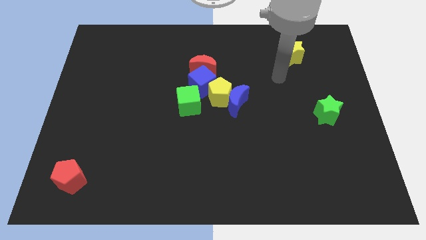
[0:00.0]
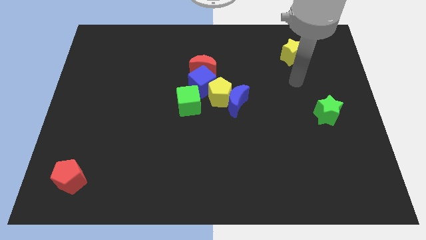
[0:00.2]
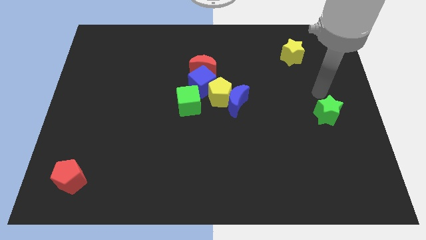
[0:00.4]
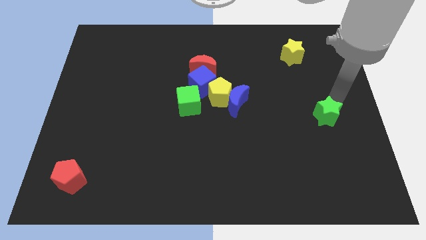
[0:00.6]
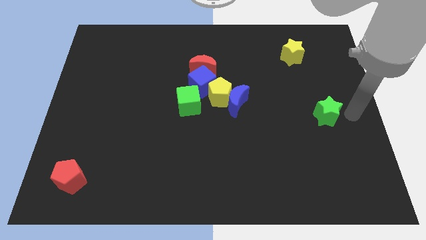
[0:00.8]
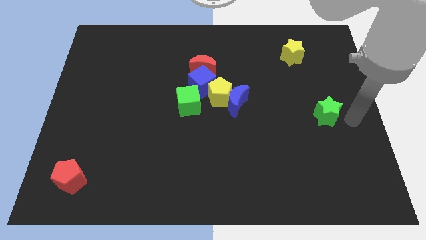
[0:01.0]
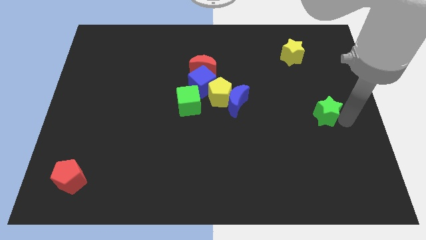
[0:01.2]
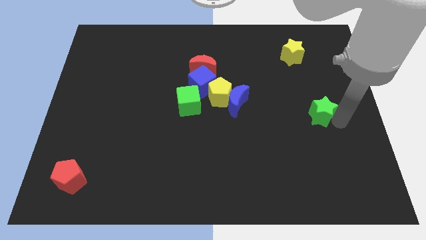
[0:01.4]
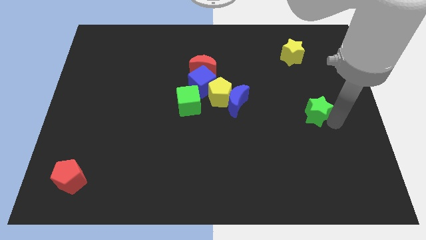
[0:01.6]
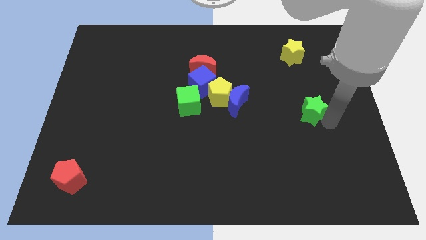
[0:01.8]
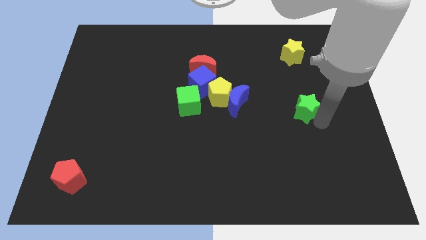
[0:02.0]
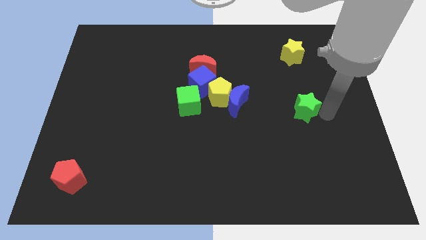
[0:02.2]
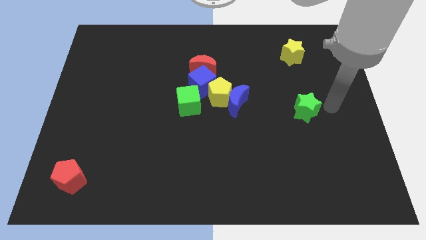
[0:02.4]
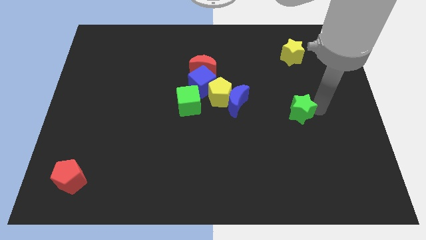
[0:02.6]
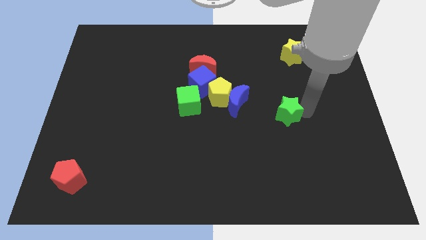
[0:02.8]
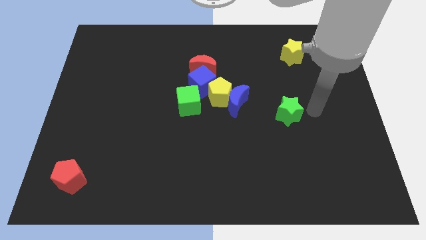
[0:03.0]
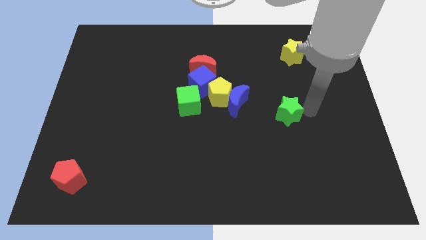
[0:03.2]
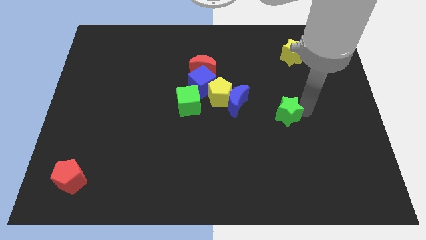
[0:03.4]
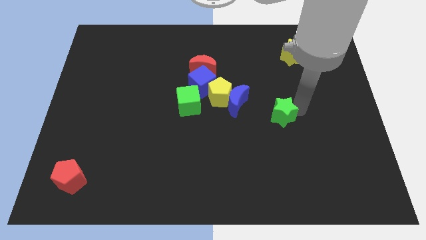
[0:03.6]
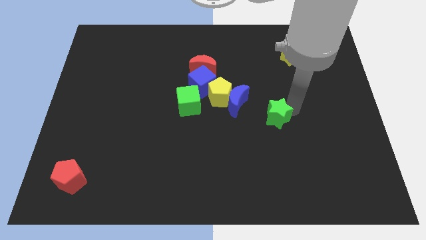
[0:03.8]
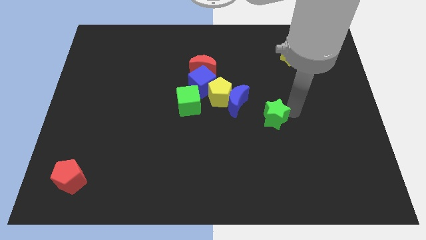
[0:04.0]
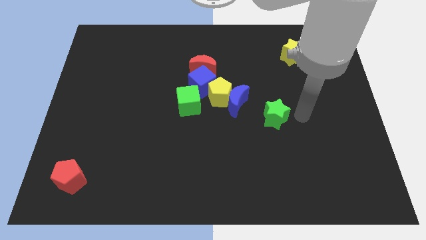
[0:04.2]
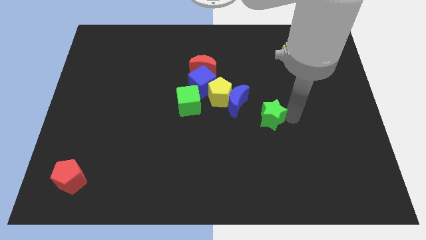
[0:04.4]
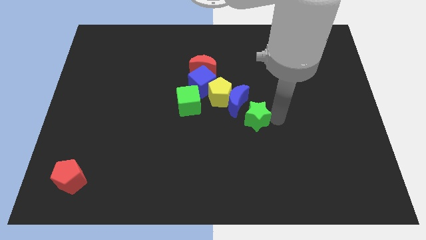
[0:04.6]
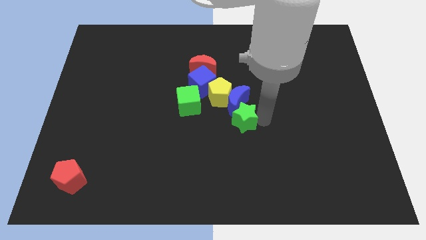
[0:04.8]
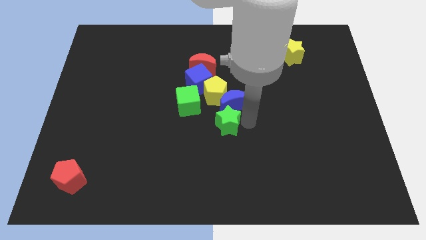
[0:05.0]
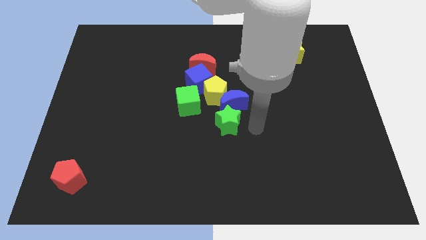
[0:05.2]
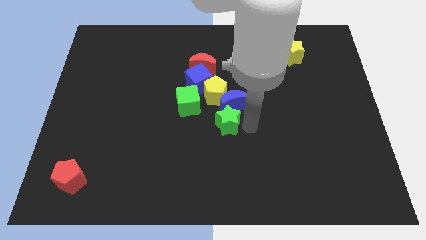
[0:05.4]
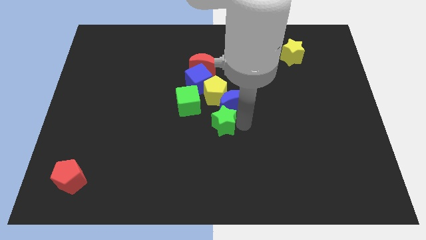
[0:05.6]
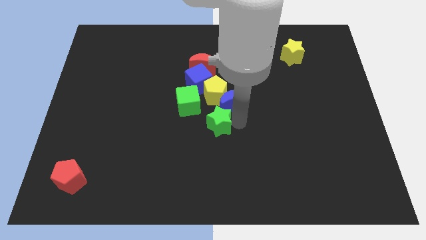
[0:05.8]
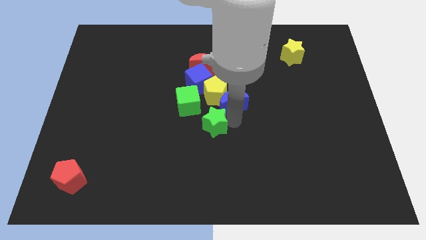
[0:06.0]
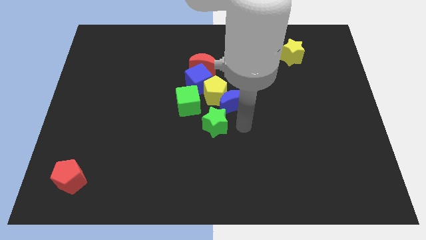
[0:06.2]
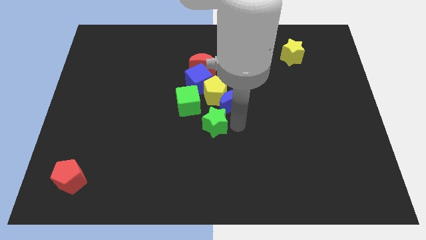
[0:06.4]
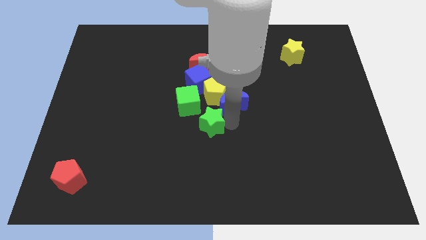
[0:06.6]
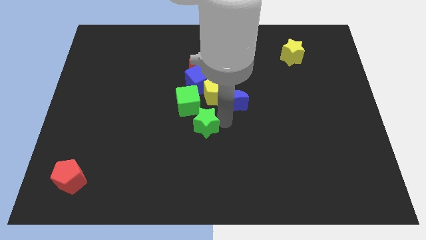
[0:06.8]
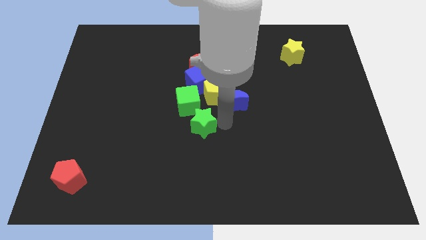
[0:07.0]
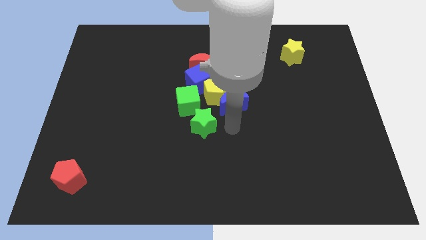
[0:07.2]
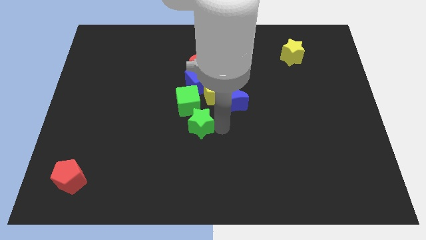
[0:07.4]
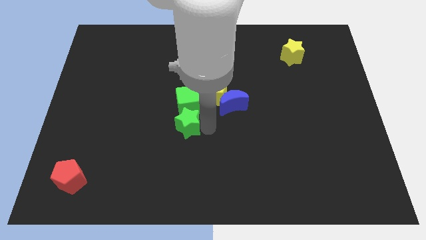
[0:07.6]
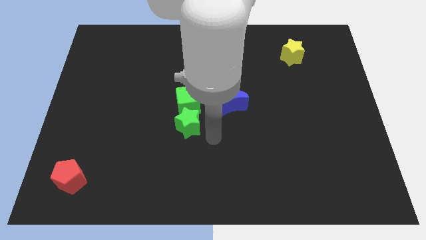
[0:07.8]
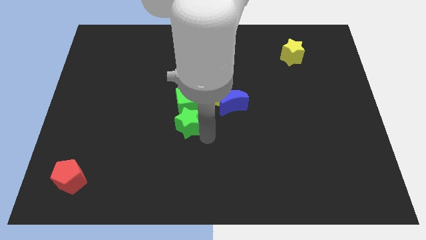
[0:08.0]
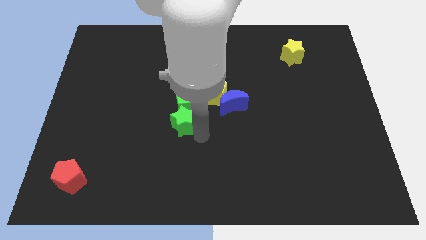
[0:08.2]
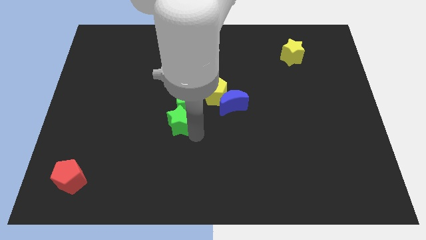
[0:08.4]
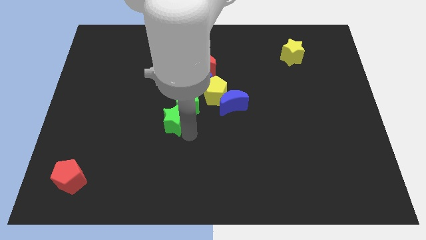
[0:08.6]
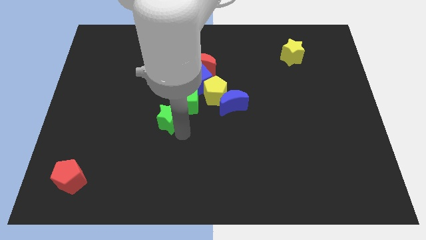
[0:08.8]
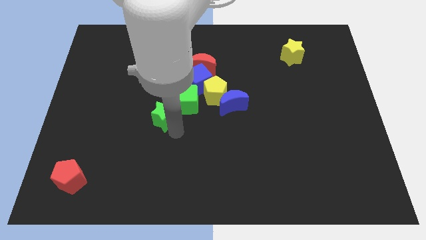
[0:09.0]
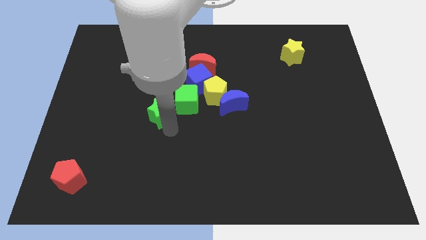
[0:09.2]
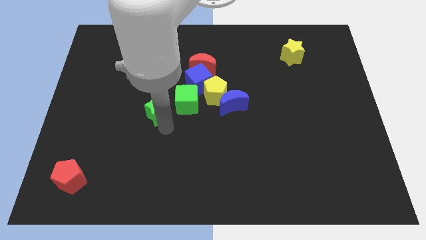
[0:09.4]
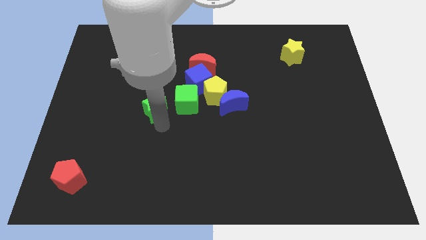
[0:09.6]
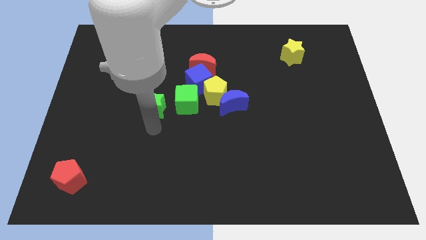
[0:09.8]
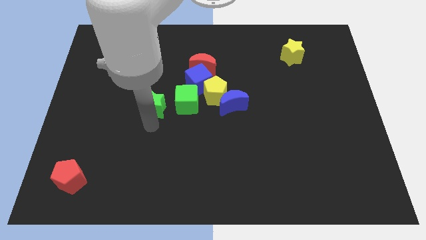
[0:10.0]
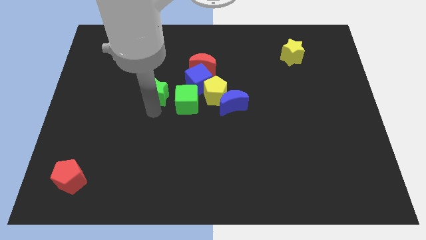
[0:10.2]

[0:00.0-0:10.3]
put the green star to the left of the blue cube

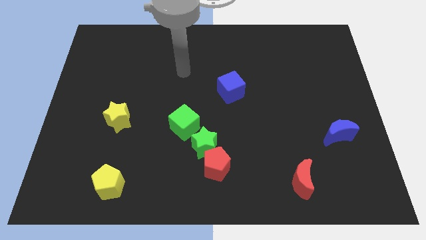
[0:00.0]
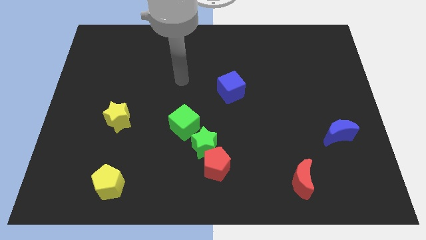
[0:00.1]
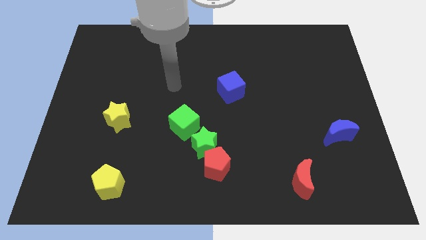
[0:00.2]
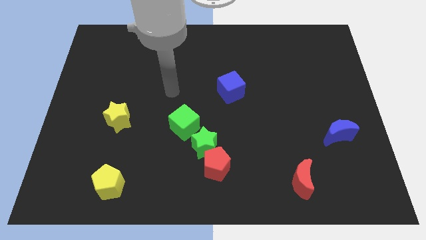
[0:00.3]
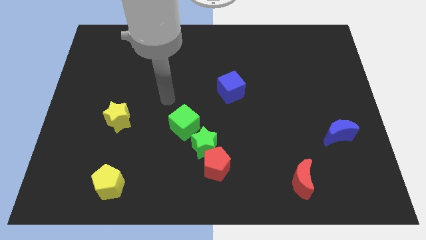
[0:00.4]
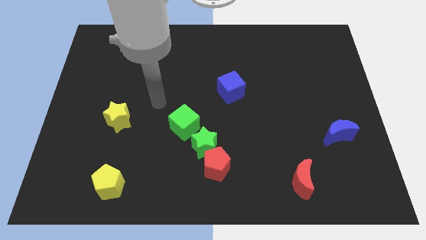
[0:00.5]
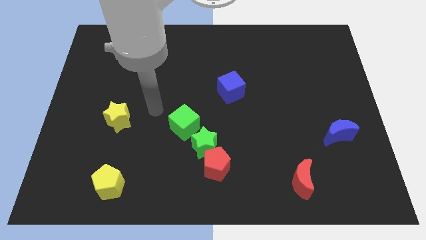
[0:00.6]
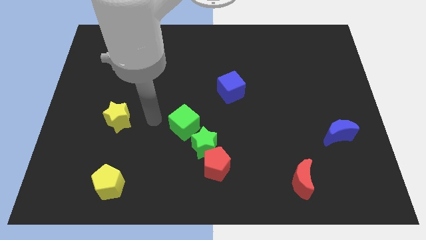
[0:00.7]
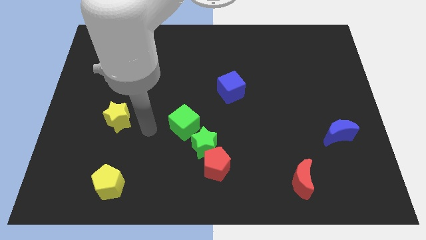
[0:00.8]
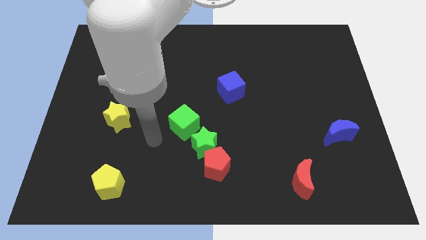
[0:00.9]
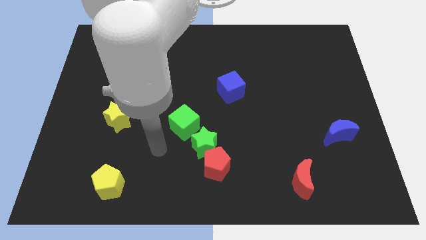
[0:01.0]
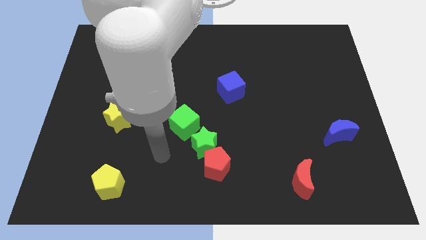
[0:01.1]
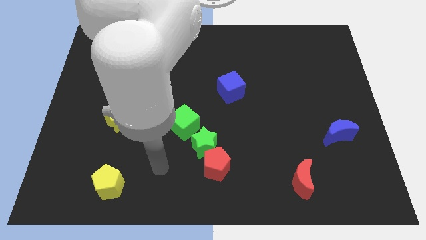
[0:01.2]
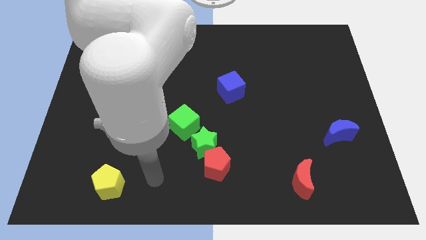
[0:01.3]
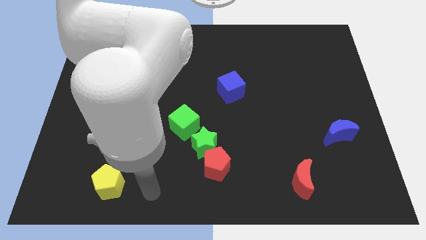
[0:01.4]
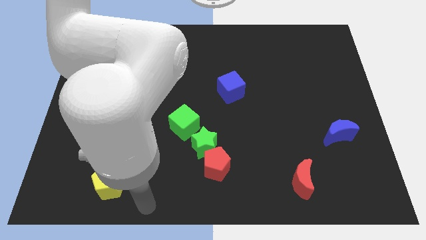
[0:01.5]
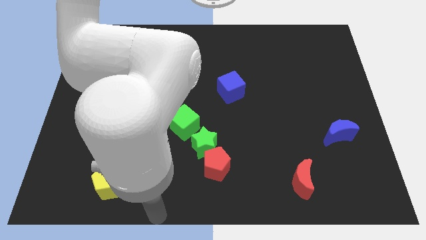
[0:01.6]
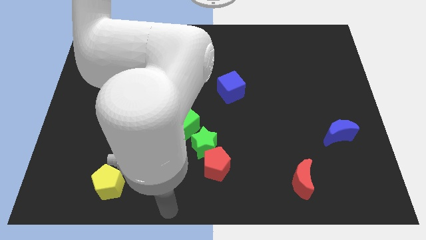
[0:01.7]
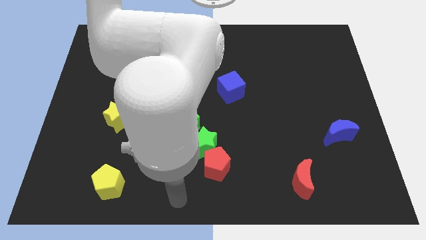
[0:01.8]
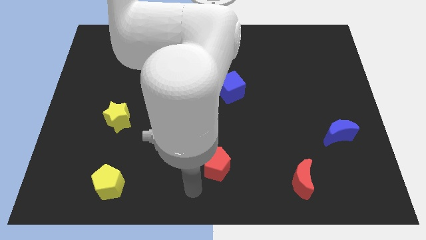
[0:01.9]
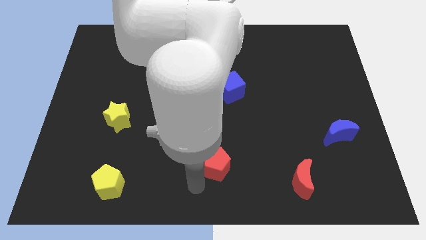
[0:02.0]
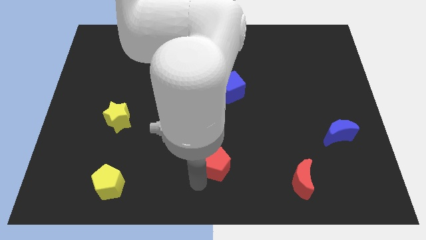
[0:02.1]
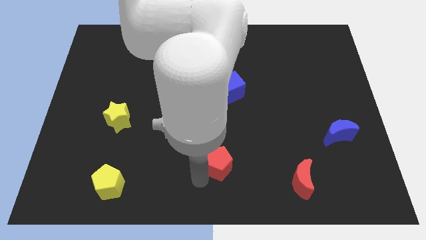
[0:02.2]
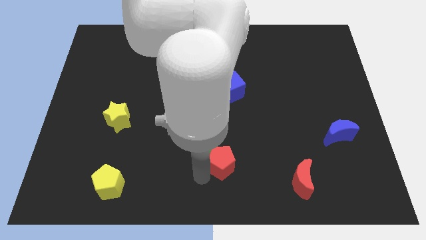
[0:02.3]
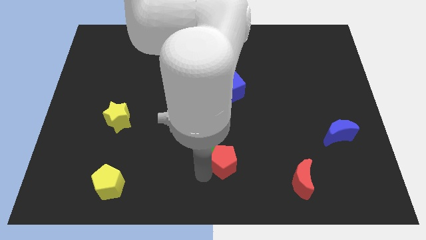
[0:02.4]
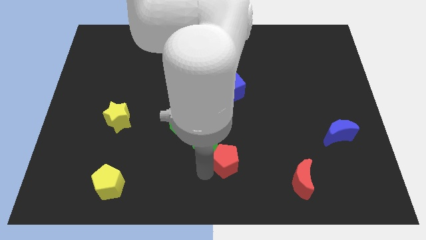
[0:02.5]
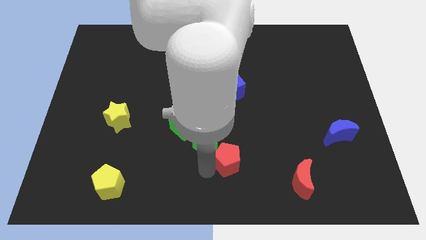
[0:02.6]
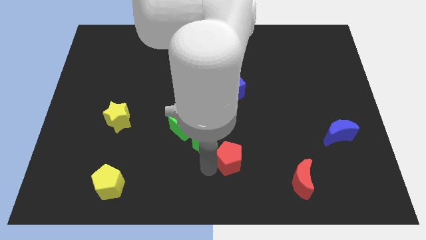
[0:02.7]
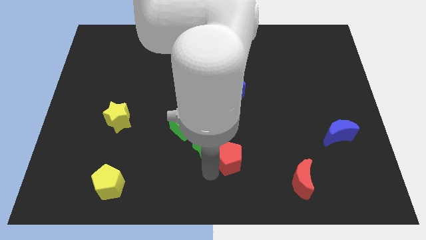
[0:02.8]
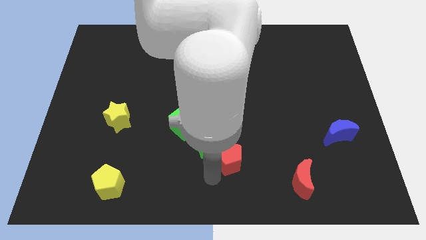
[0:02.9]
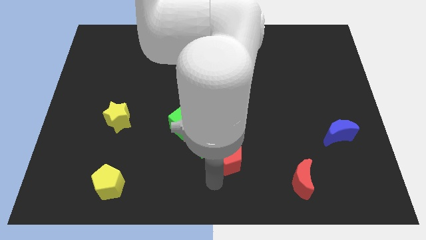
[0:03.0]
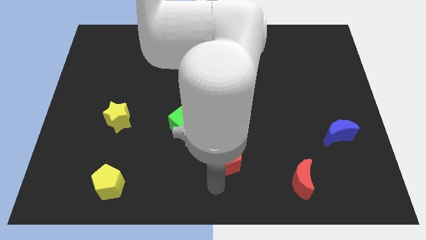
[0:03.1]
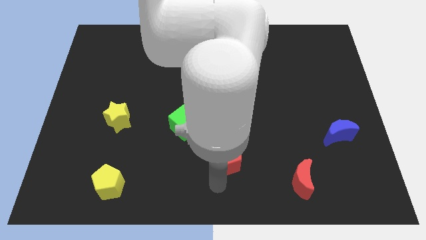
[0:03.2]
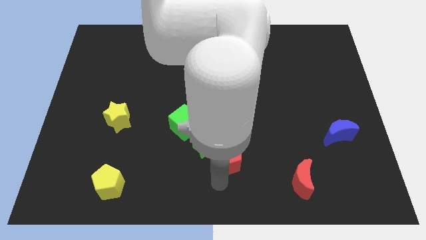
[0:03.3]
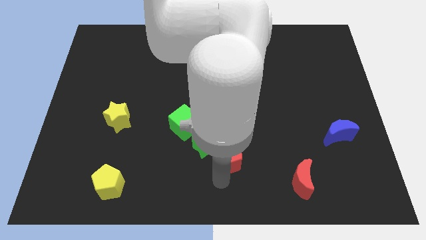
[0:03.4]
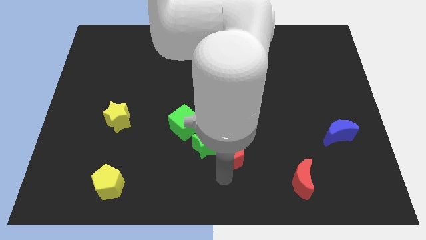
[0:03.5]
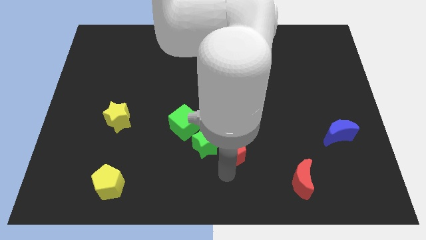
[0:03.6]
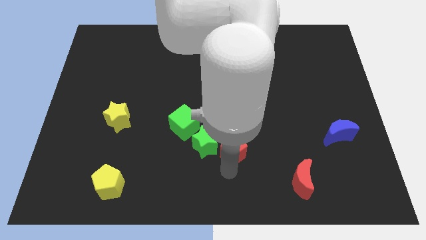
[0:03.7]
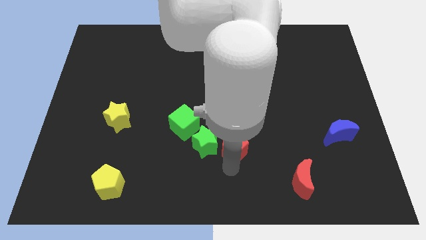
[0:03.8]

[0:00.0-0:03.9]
move the red pentagon diagonally up and to the right of the green star
